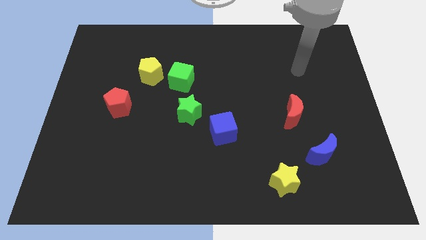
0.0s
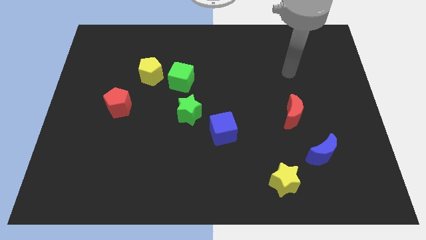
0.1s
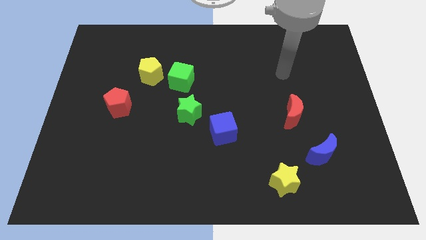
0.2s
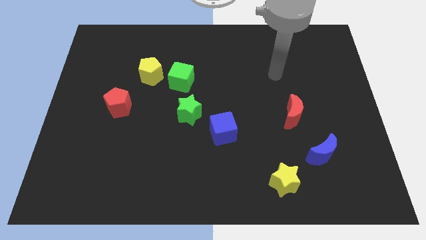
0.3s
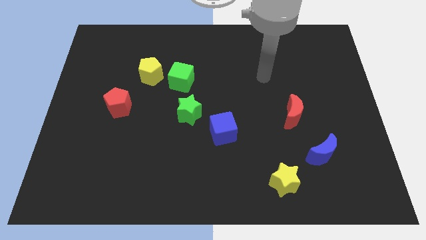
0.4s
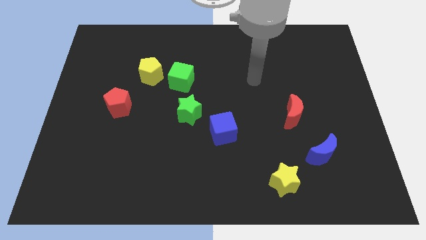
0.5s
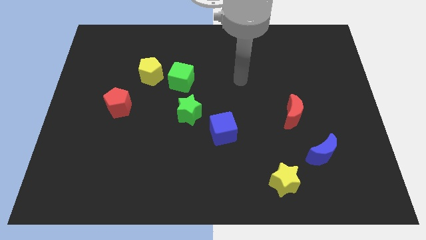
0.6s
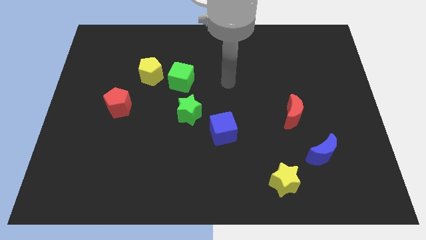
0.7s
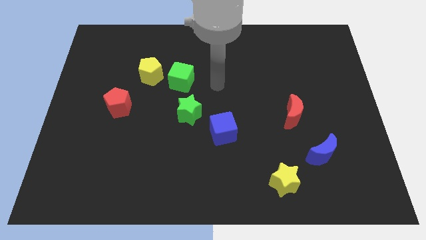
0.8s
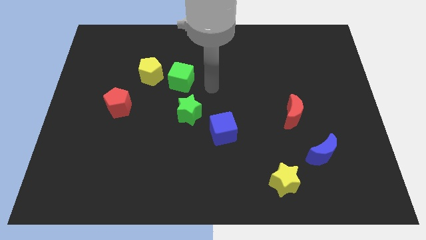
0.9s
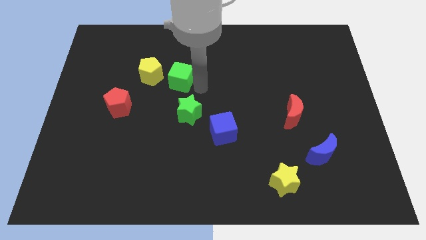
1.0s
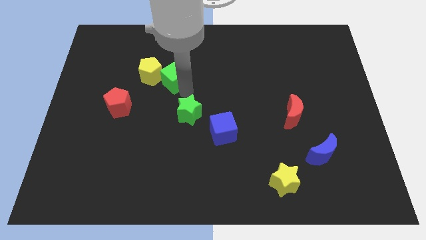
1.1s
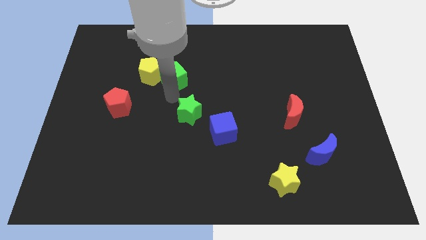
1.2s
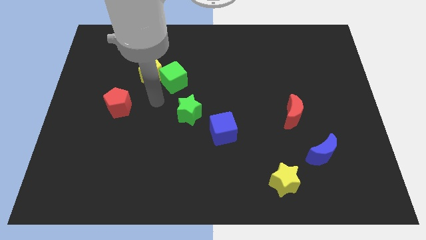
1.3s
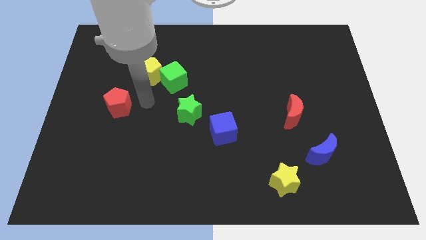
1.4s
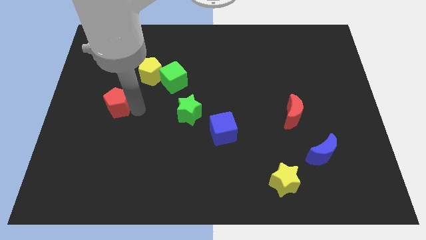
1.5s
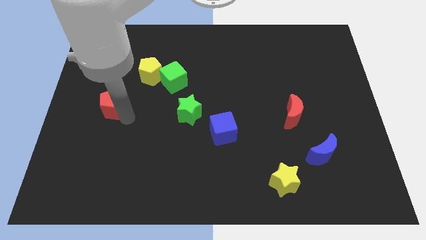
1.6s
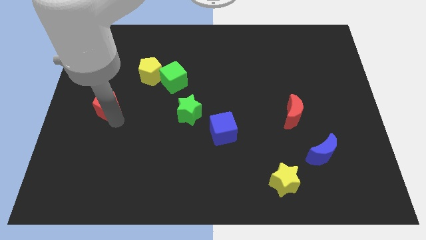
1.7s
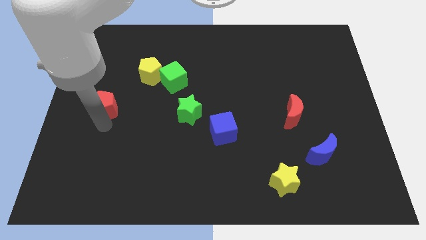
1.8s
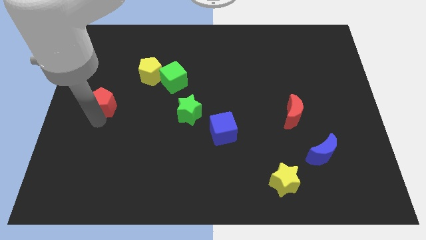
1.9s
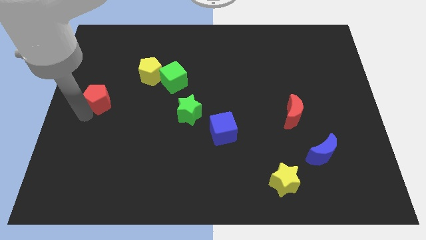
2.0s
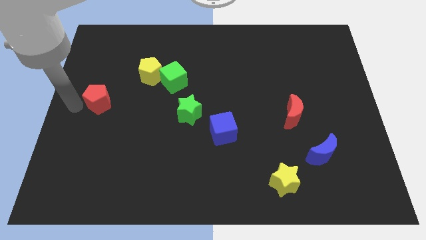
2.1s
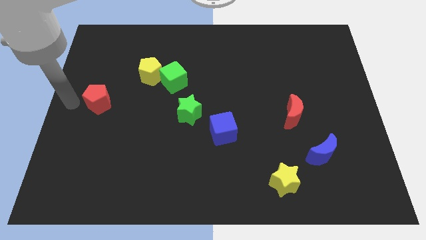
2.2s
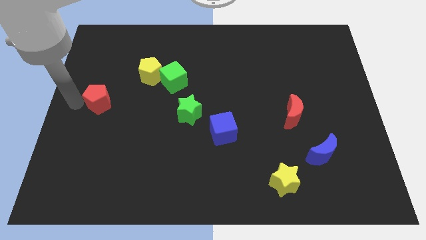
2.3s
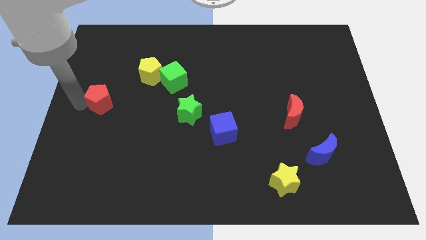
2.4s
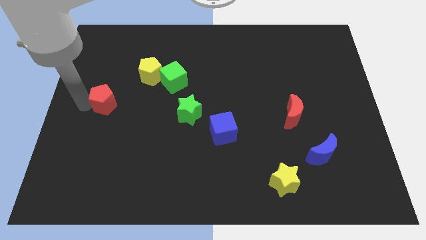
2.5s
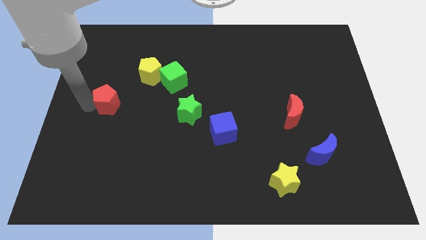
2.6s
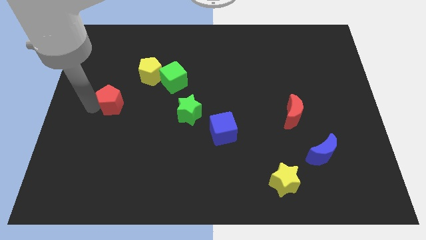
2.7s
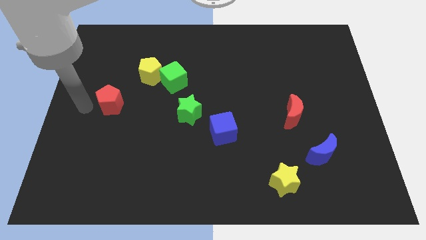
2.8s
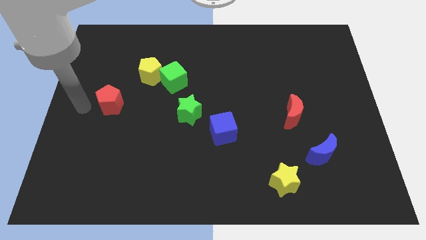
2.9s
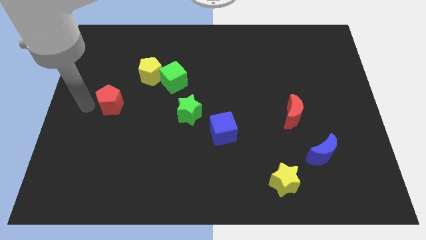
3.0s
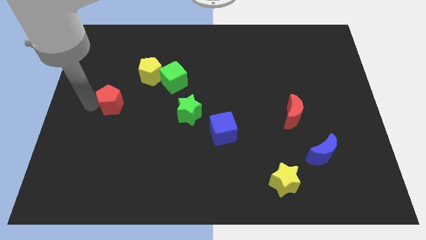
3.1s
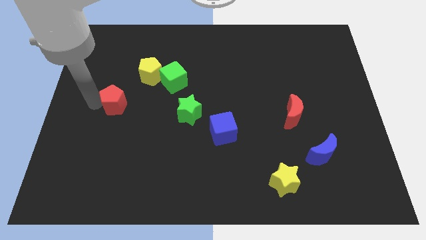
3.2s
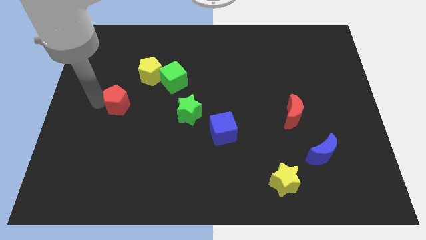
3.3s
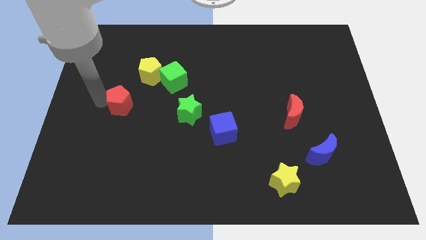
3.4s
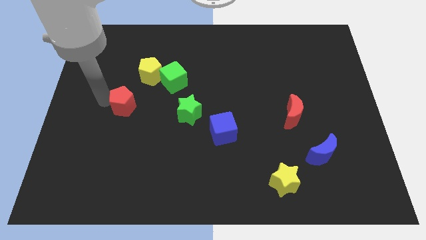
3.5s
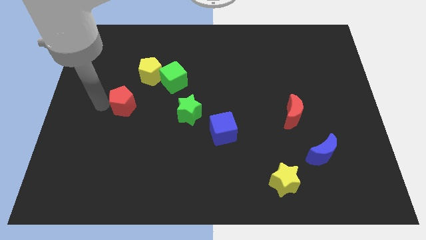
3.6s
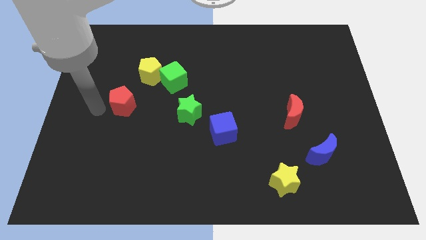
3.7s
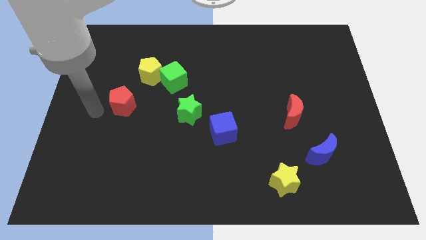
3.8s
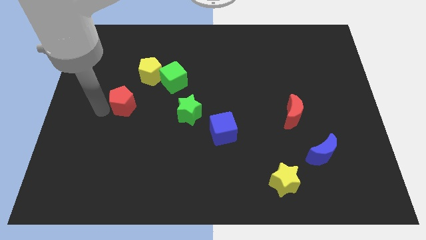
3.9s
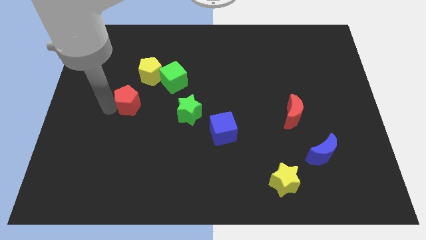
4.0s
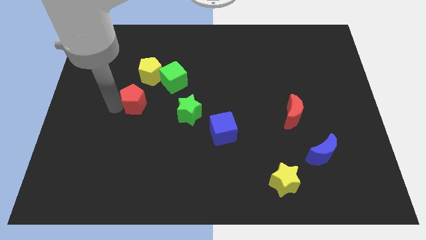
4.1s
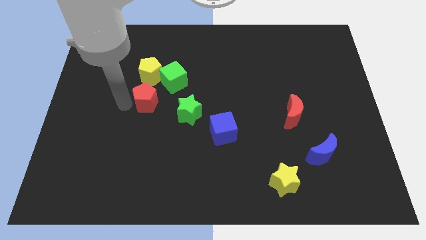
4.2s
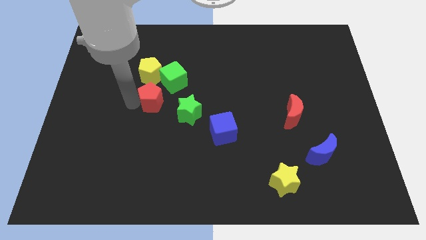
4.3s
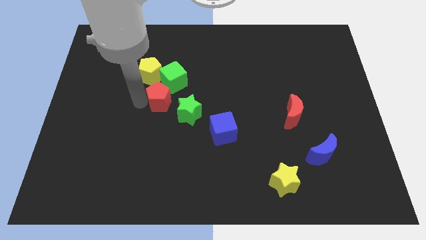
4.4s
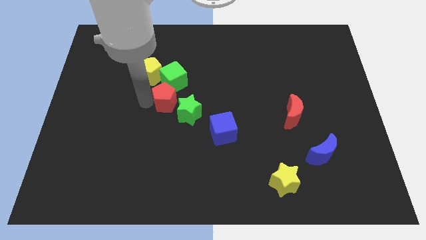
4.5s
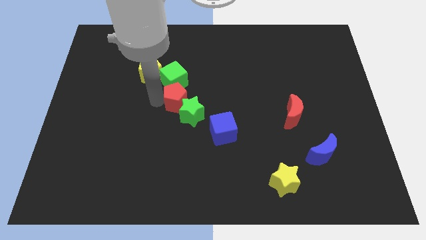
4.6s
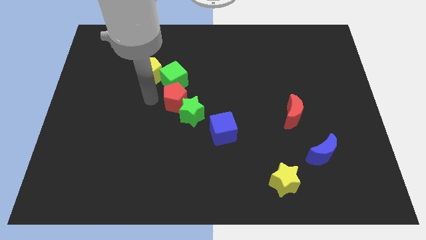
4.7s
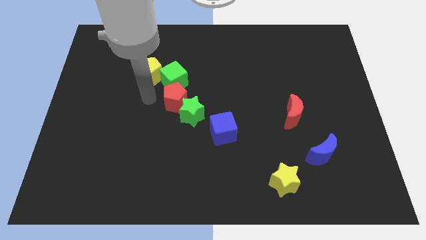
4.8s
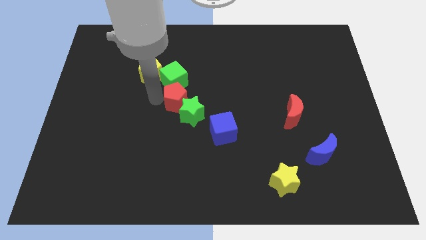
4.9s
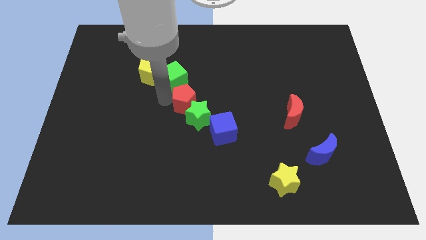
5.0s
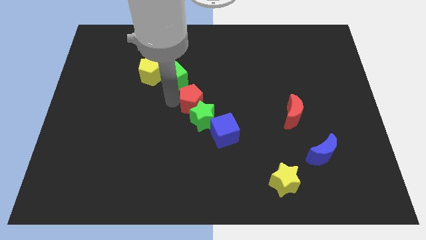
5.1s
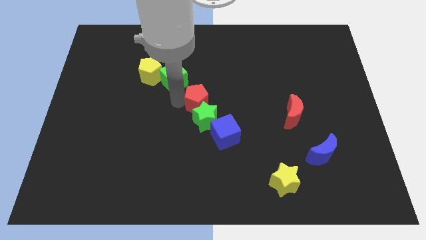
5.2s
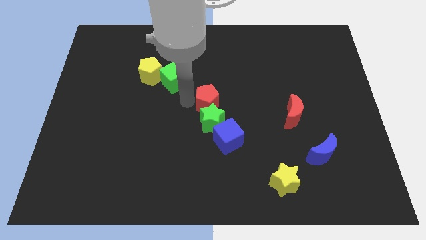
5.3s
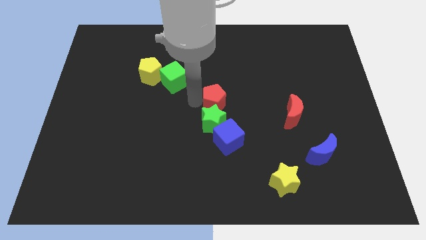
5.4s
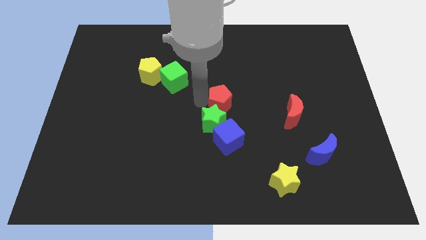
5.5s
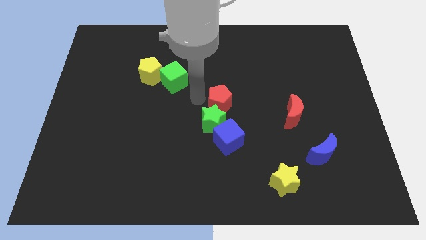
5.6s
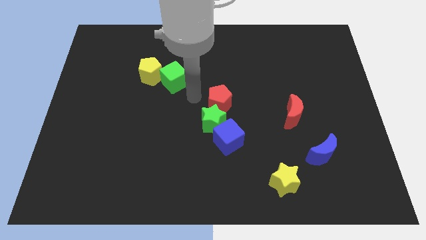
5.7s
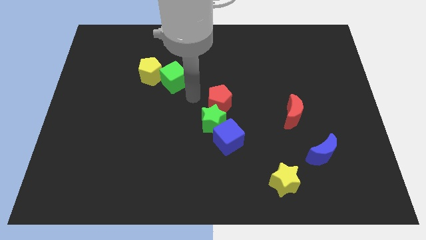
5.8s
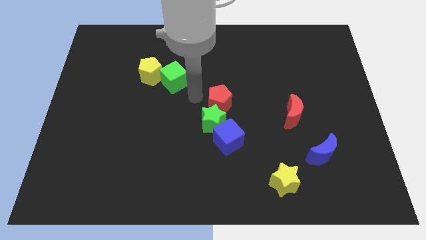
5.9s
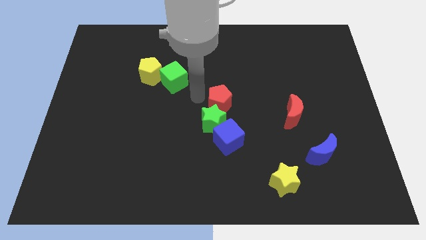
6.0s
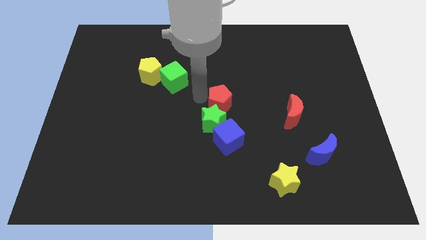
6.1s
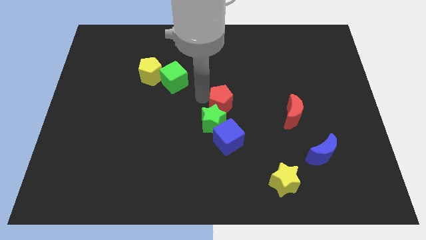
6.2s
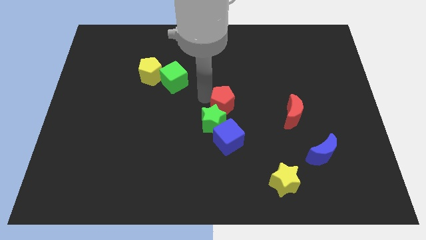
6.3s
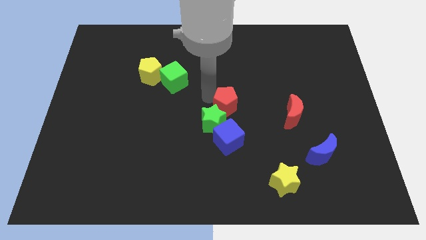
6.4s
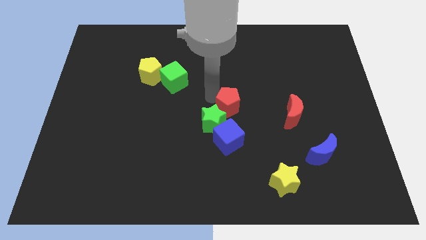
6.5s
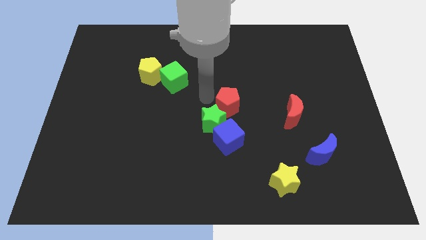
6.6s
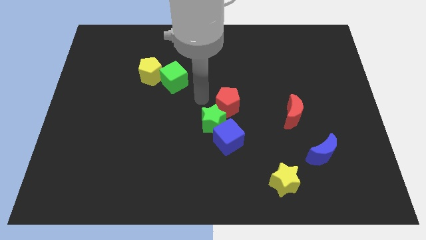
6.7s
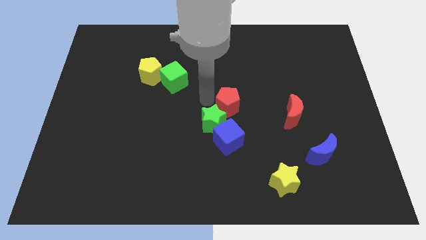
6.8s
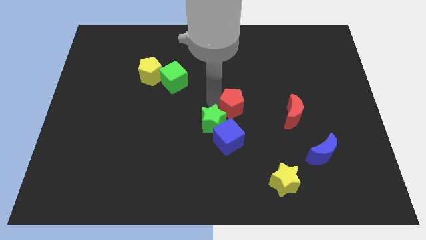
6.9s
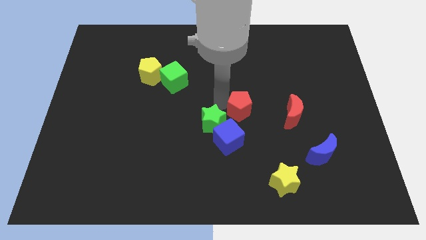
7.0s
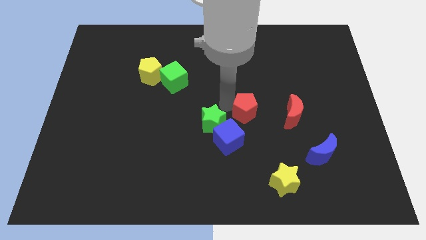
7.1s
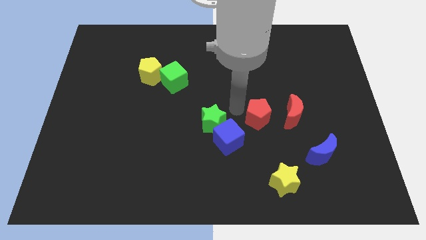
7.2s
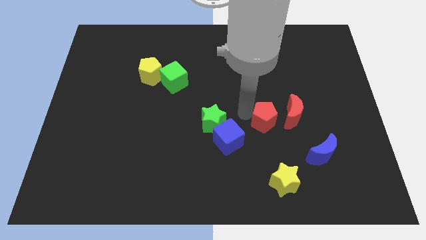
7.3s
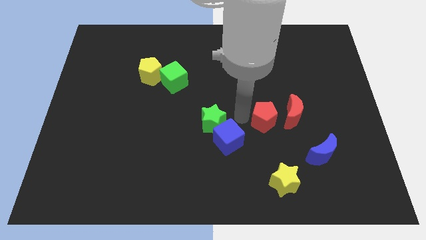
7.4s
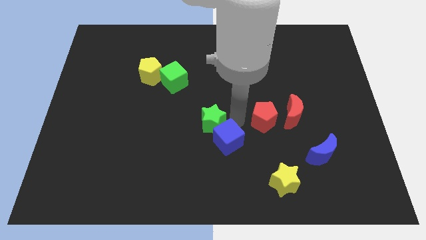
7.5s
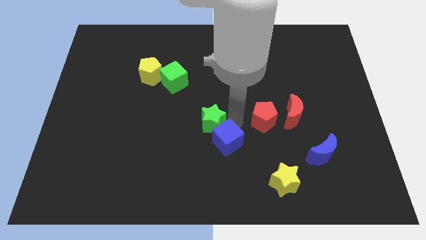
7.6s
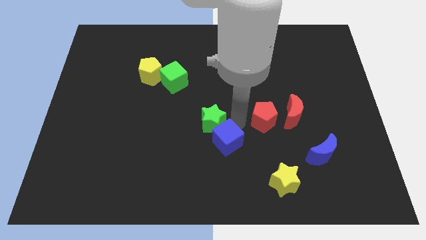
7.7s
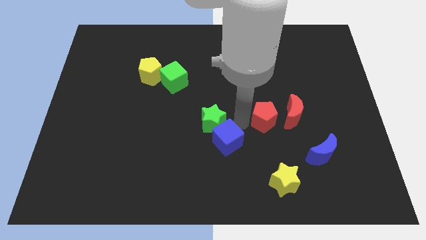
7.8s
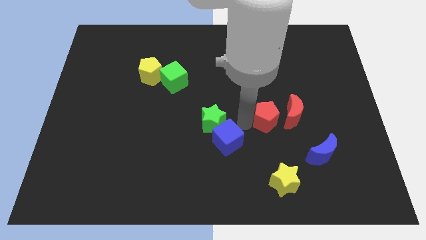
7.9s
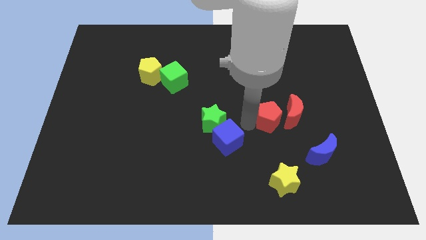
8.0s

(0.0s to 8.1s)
put the red pentagon next to the red moon
